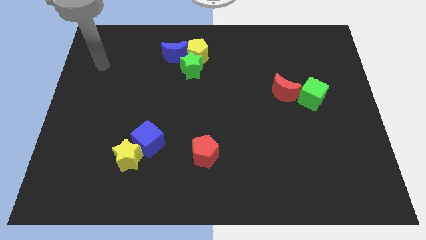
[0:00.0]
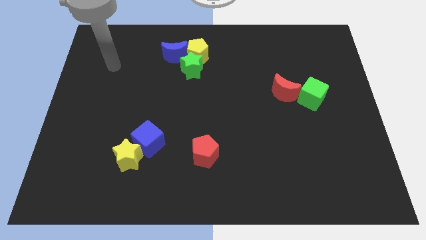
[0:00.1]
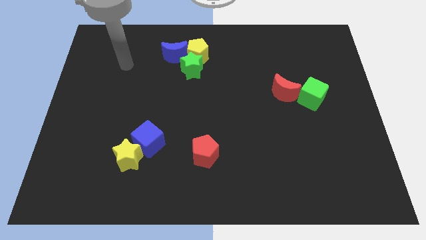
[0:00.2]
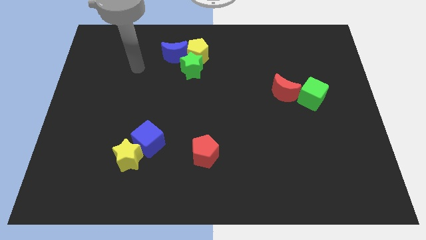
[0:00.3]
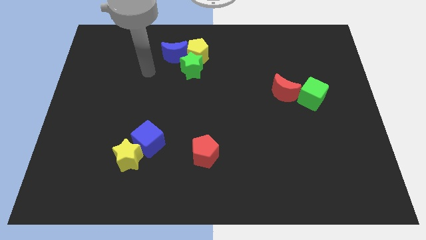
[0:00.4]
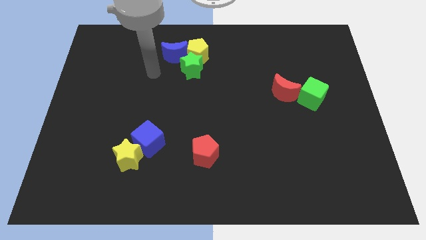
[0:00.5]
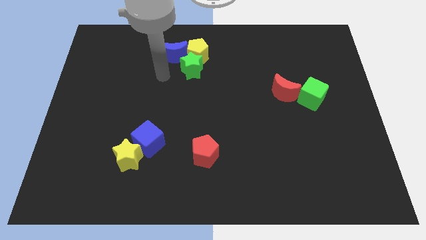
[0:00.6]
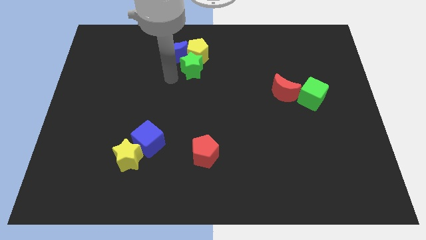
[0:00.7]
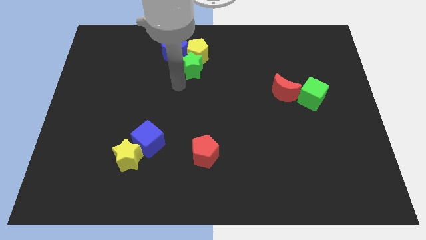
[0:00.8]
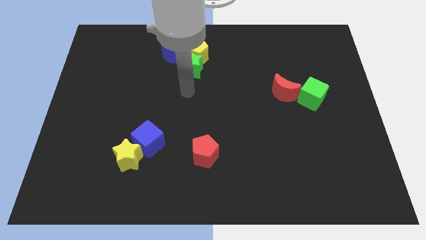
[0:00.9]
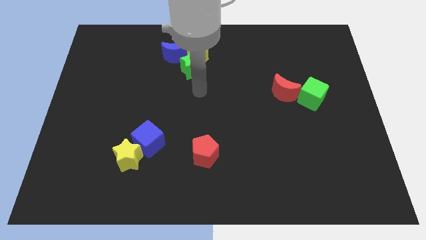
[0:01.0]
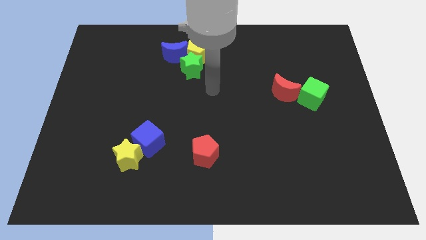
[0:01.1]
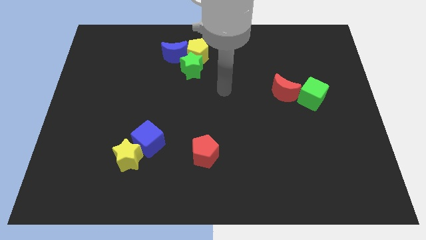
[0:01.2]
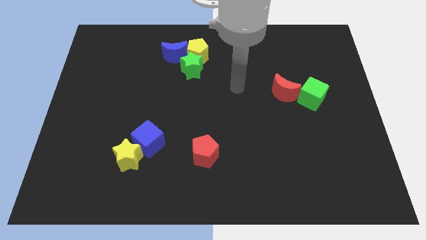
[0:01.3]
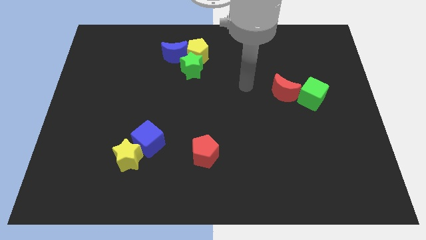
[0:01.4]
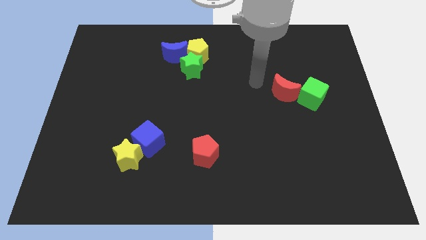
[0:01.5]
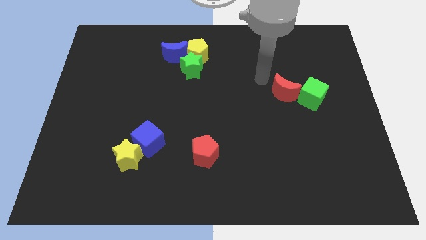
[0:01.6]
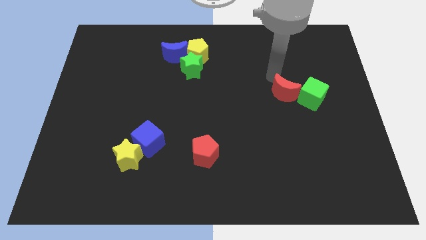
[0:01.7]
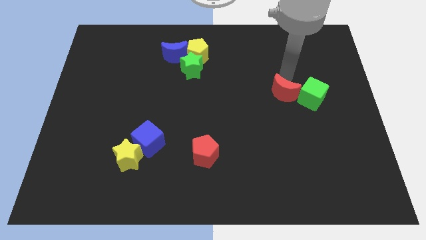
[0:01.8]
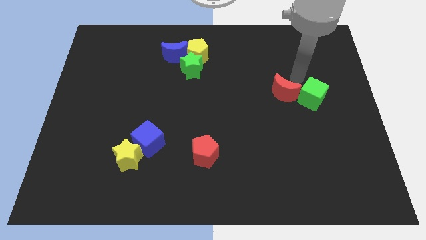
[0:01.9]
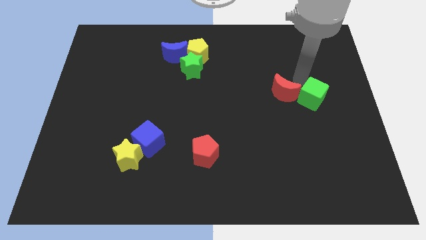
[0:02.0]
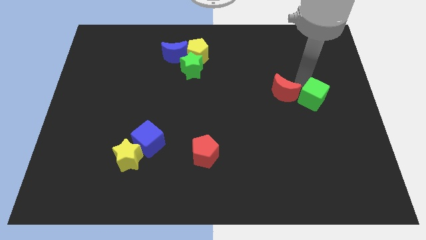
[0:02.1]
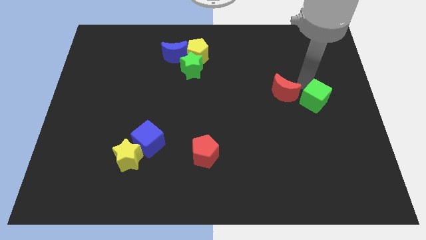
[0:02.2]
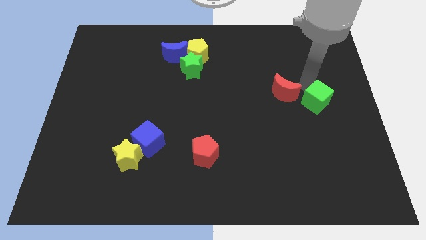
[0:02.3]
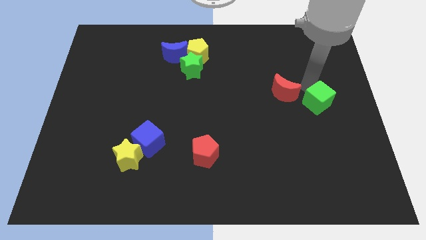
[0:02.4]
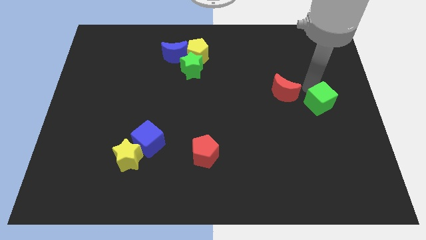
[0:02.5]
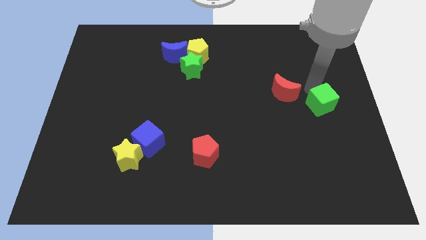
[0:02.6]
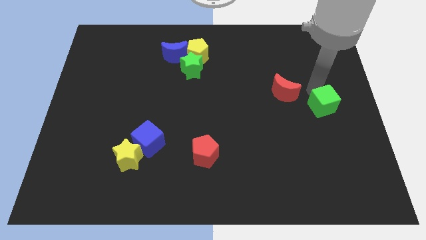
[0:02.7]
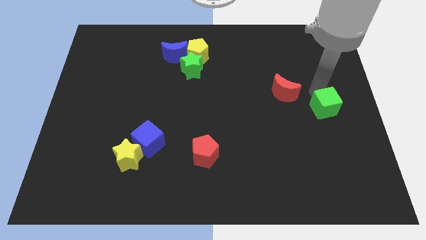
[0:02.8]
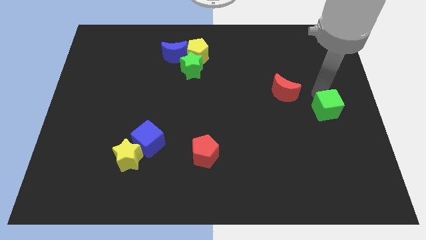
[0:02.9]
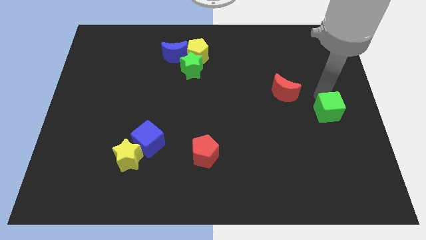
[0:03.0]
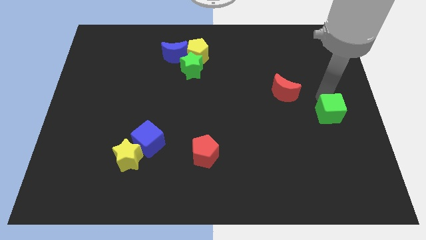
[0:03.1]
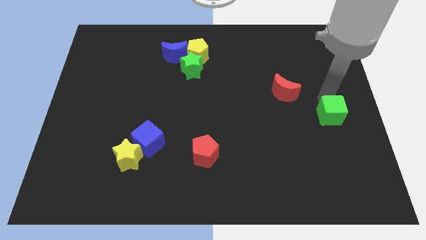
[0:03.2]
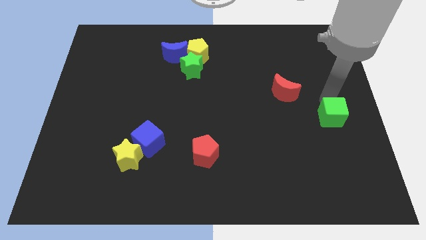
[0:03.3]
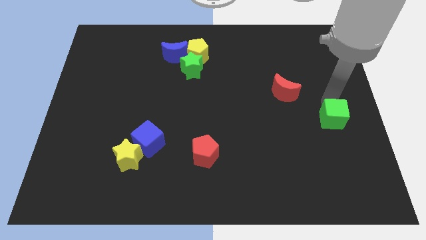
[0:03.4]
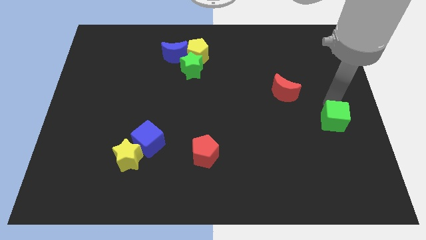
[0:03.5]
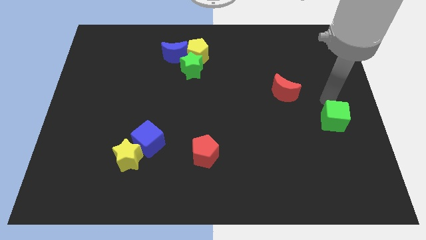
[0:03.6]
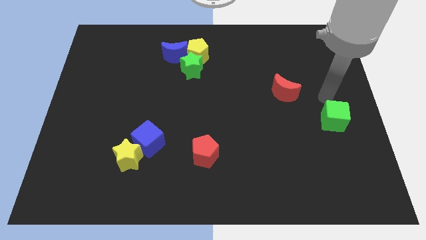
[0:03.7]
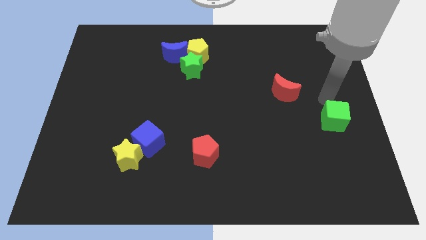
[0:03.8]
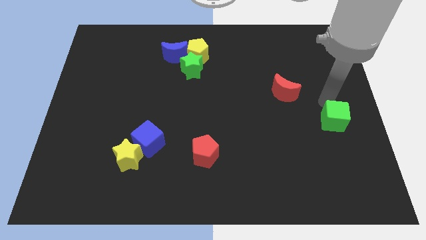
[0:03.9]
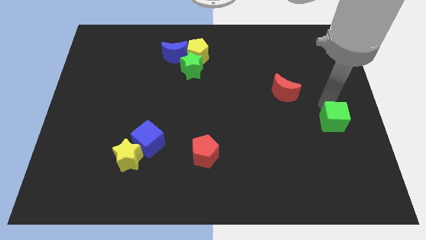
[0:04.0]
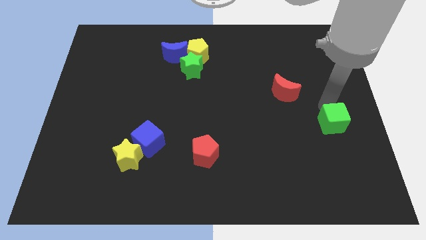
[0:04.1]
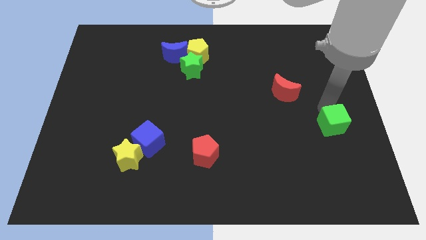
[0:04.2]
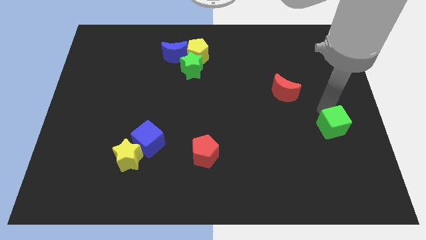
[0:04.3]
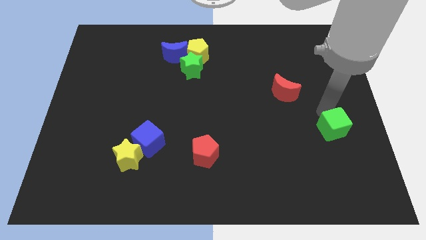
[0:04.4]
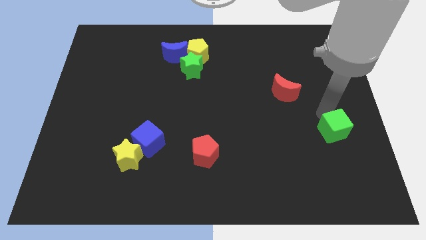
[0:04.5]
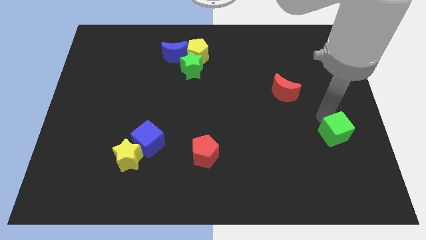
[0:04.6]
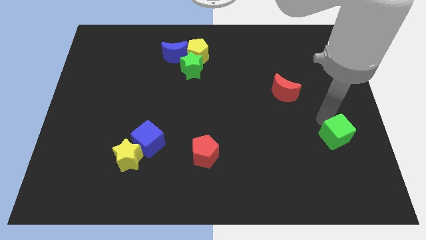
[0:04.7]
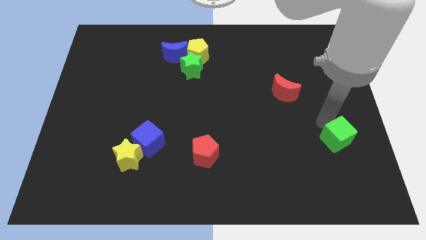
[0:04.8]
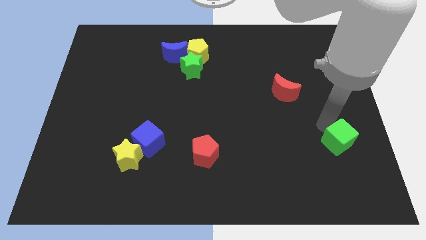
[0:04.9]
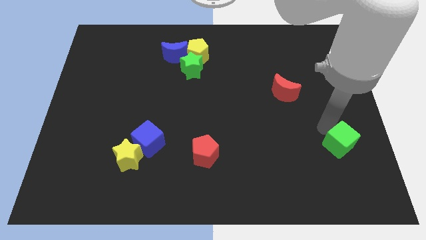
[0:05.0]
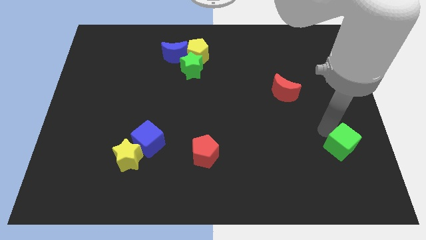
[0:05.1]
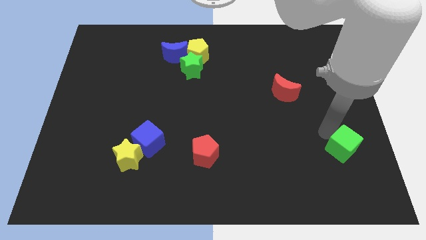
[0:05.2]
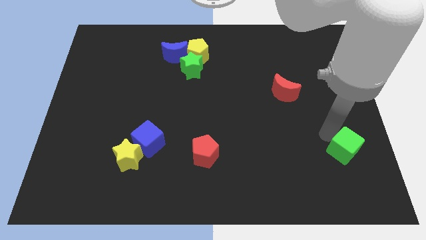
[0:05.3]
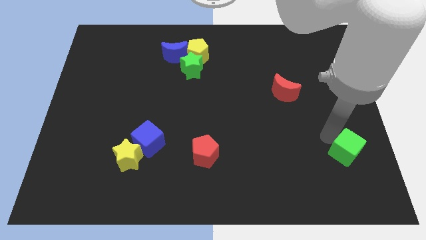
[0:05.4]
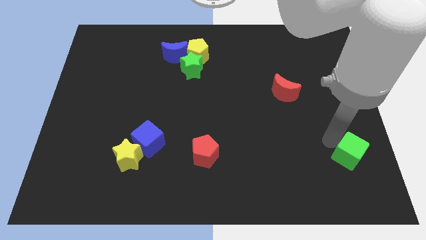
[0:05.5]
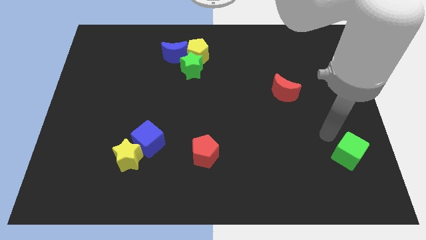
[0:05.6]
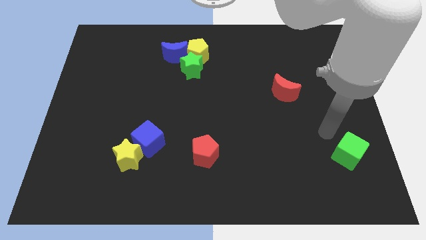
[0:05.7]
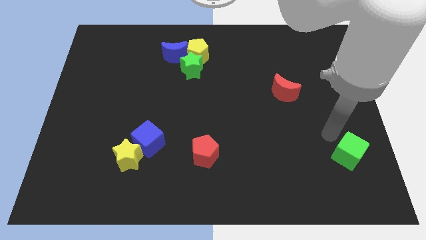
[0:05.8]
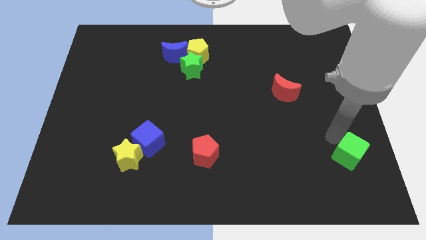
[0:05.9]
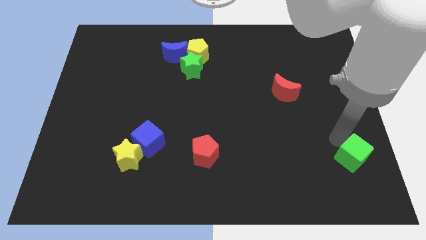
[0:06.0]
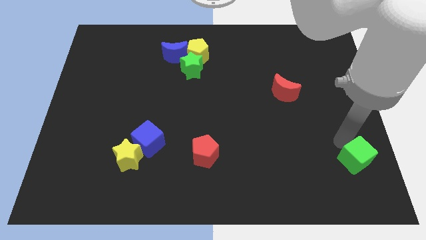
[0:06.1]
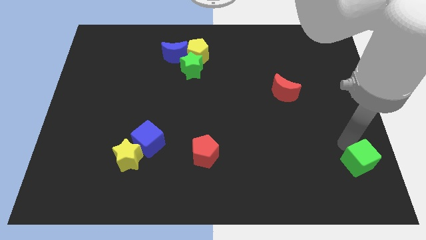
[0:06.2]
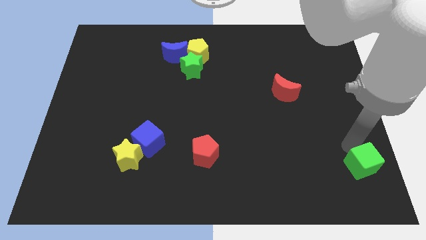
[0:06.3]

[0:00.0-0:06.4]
put the green cube to the bottom right
